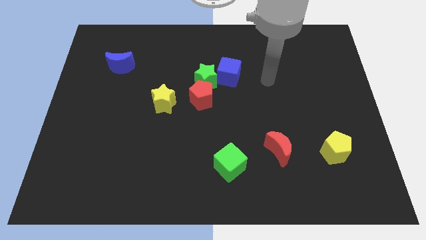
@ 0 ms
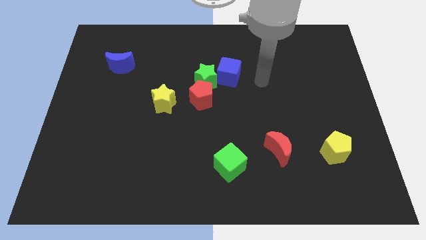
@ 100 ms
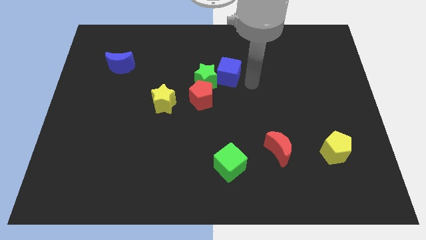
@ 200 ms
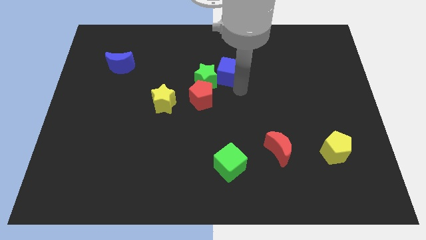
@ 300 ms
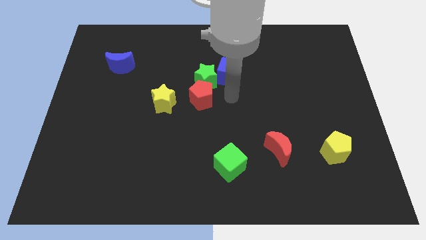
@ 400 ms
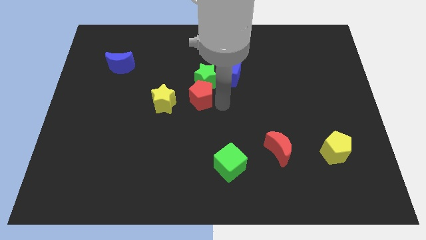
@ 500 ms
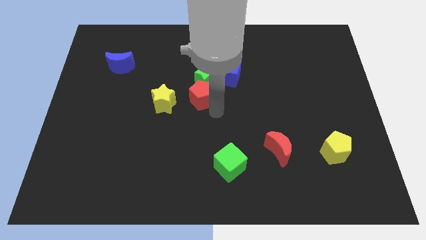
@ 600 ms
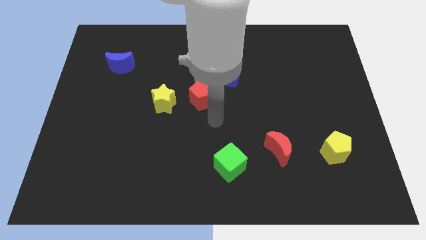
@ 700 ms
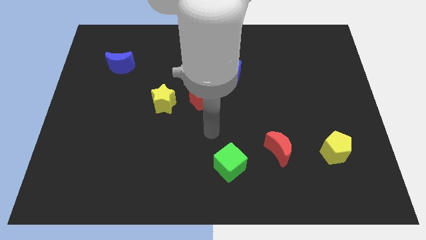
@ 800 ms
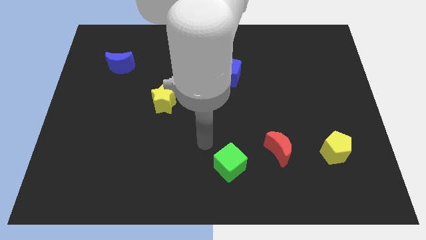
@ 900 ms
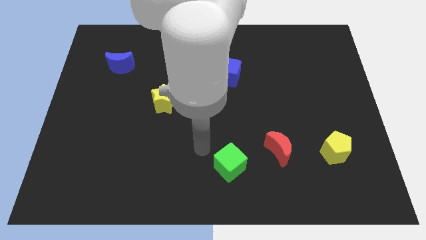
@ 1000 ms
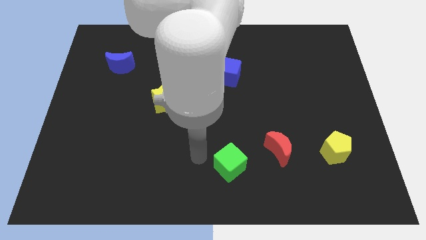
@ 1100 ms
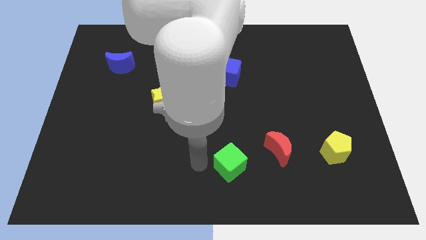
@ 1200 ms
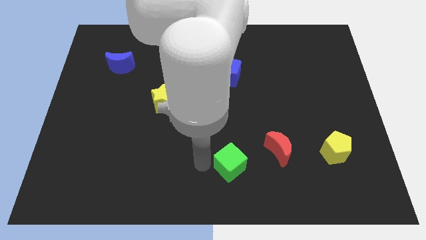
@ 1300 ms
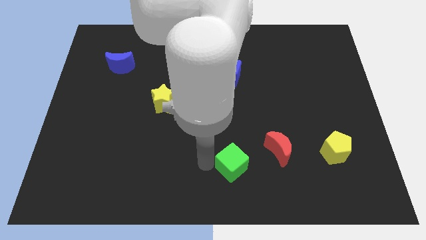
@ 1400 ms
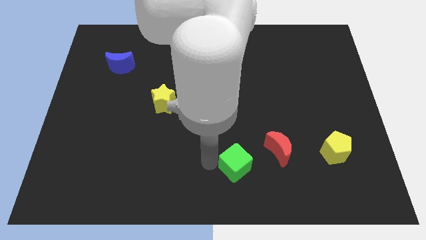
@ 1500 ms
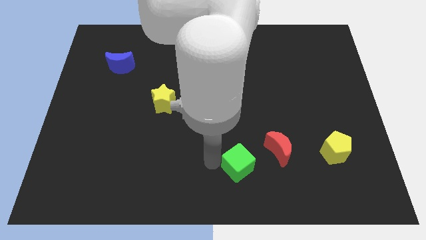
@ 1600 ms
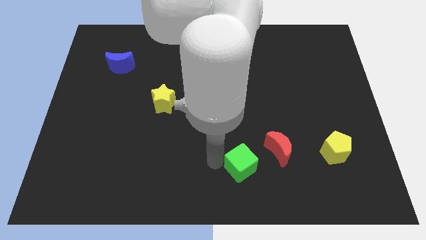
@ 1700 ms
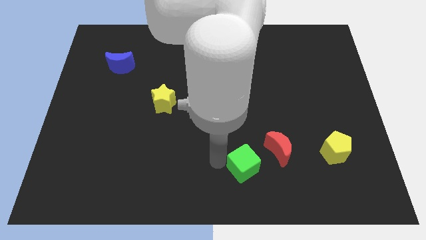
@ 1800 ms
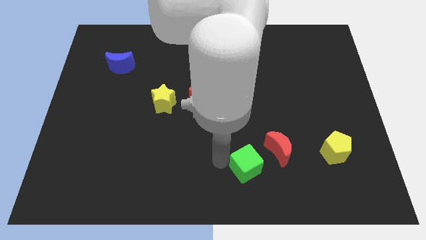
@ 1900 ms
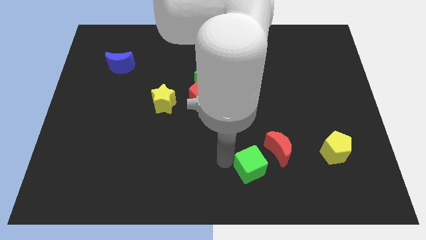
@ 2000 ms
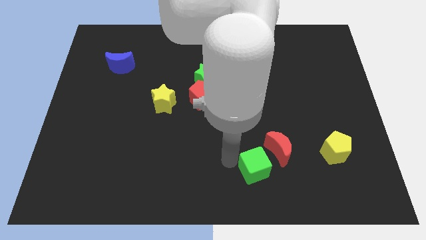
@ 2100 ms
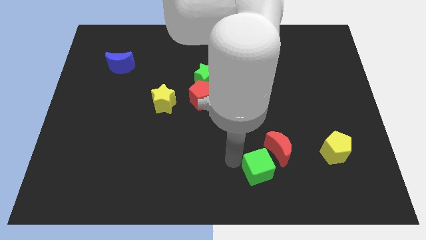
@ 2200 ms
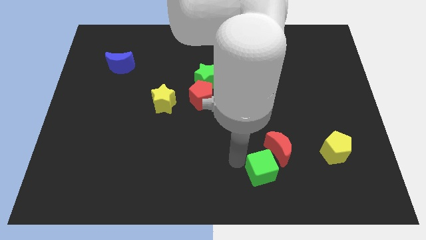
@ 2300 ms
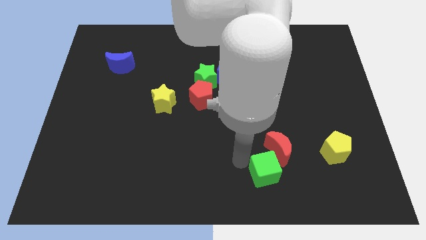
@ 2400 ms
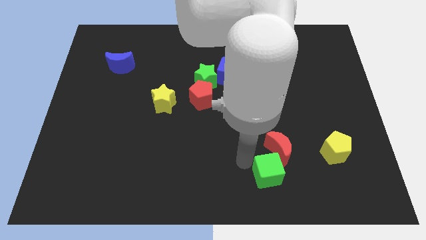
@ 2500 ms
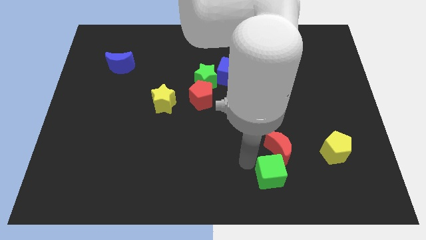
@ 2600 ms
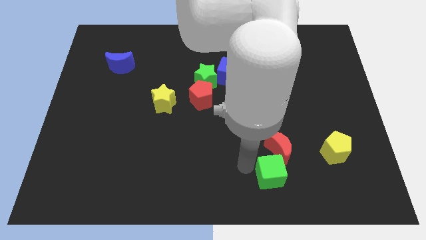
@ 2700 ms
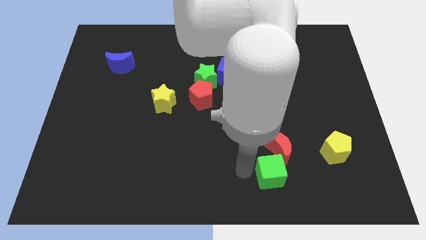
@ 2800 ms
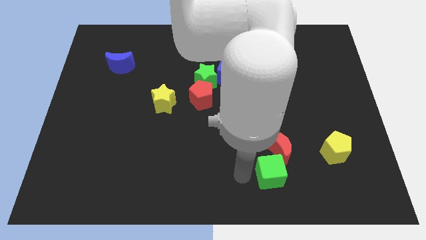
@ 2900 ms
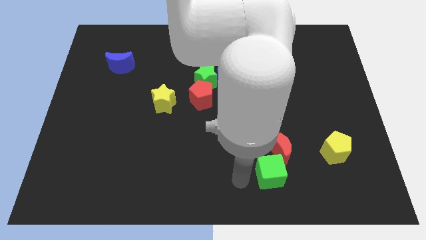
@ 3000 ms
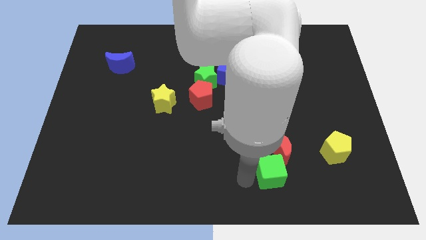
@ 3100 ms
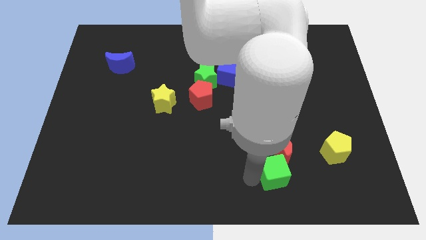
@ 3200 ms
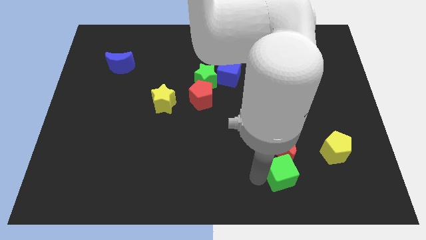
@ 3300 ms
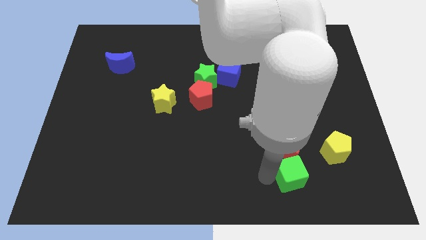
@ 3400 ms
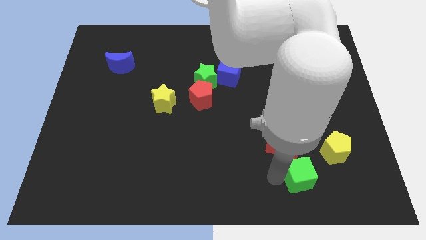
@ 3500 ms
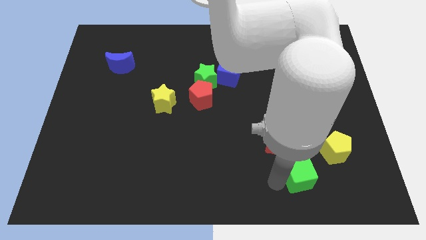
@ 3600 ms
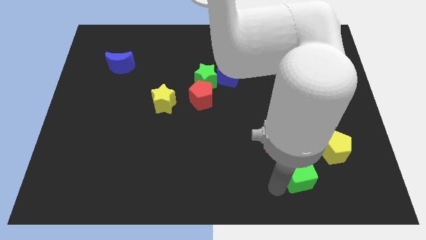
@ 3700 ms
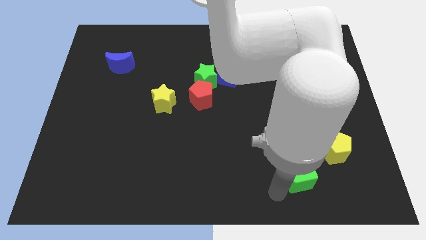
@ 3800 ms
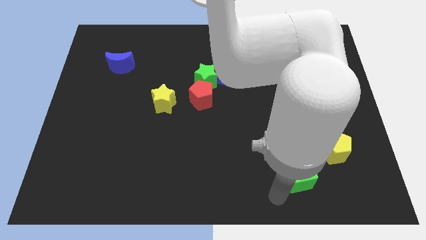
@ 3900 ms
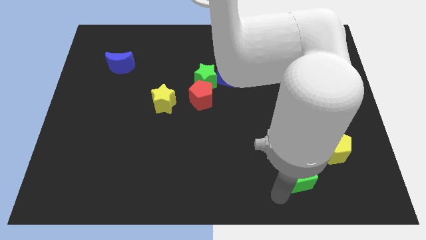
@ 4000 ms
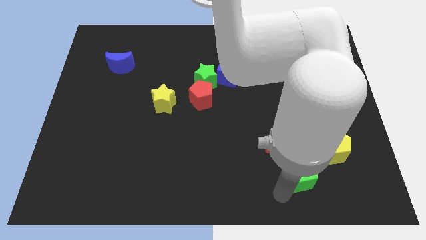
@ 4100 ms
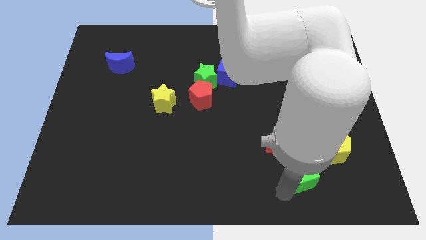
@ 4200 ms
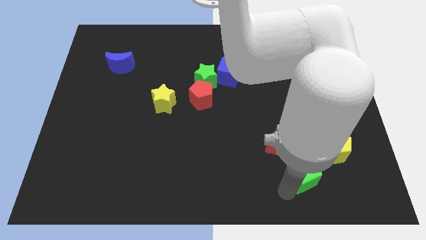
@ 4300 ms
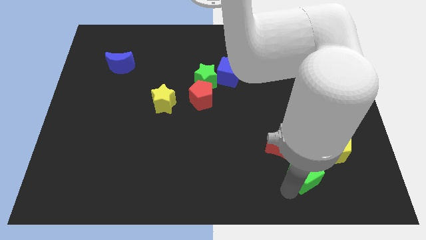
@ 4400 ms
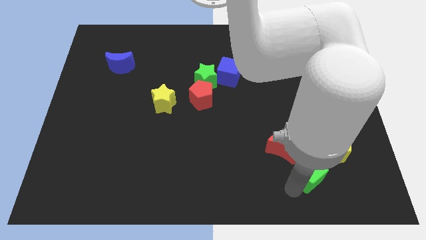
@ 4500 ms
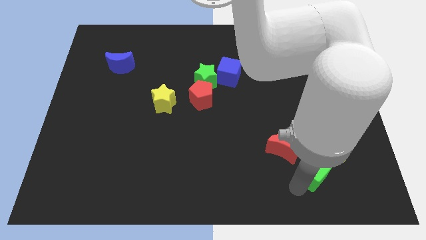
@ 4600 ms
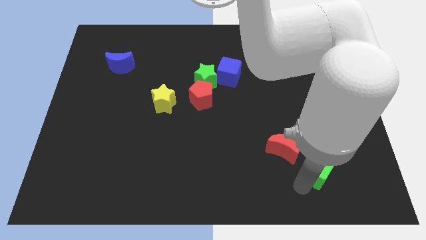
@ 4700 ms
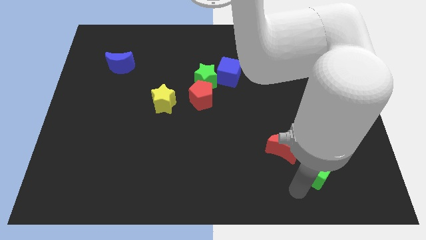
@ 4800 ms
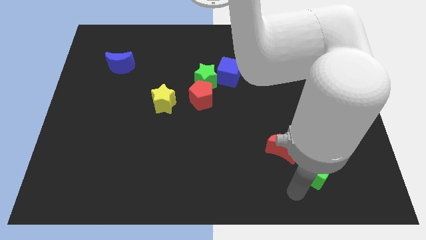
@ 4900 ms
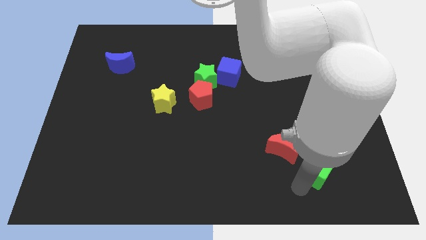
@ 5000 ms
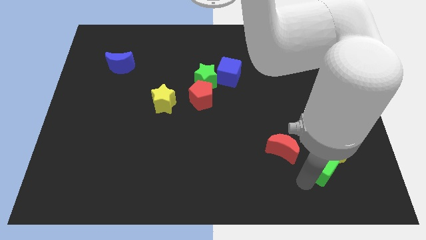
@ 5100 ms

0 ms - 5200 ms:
put the green cube to the yellow pentagon
